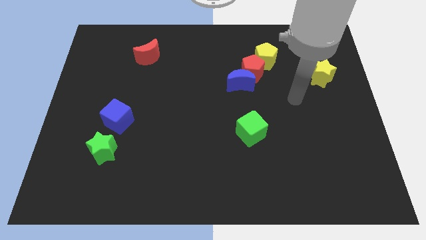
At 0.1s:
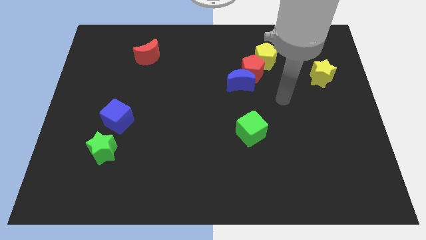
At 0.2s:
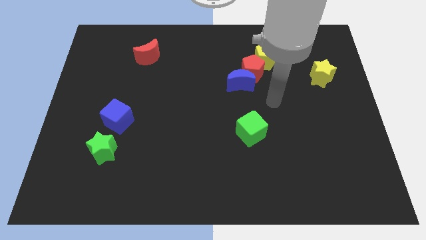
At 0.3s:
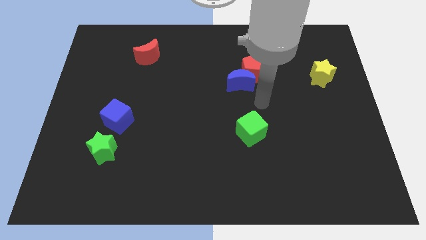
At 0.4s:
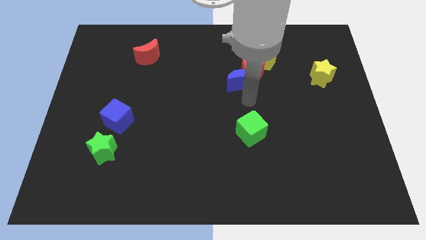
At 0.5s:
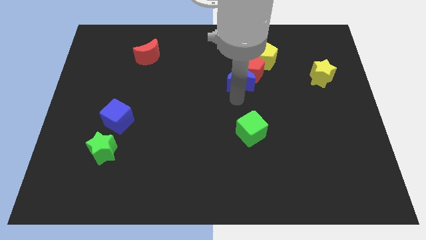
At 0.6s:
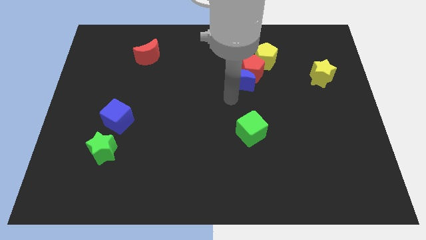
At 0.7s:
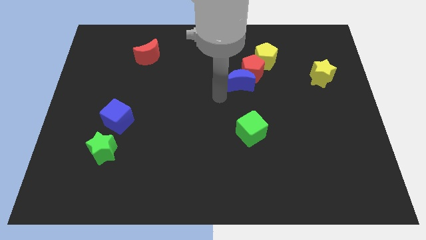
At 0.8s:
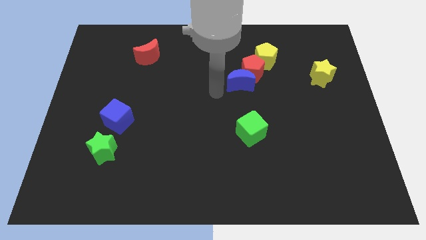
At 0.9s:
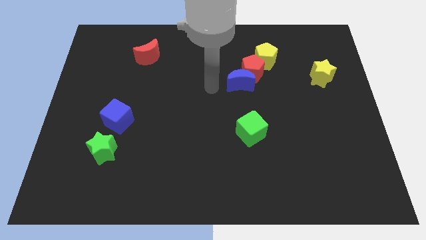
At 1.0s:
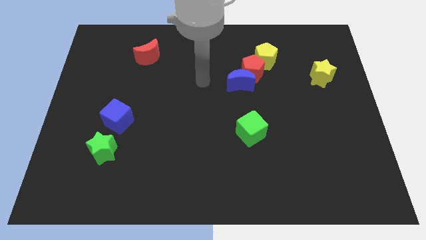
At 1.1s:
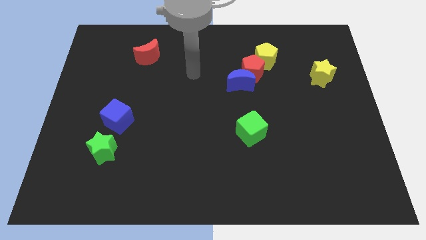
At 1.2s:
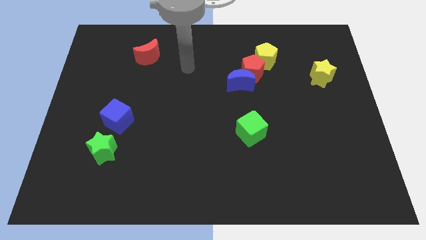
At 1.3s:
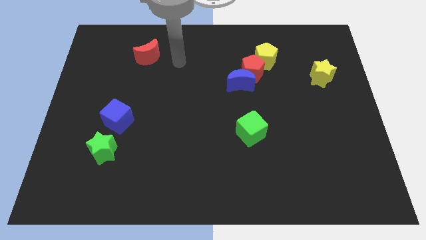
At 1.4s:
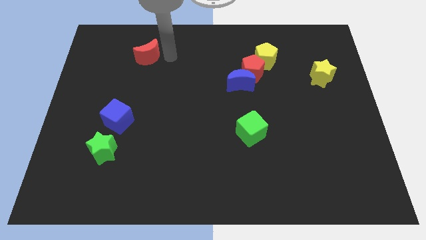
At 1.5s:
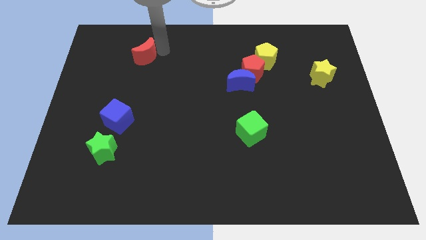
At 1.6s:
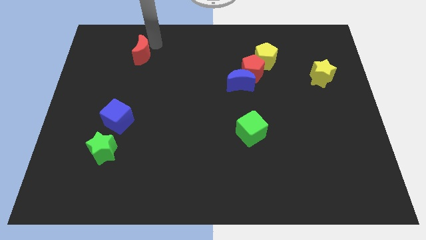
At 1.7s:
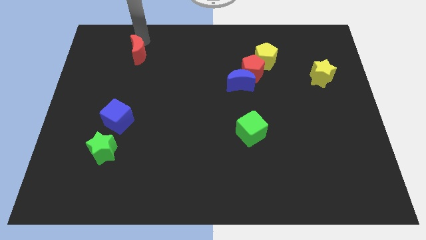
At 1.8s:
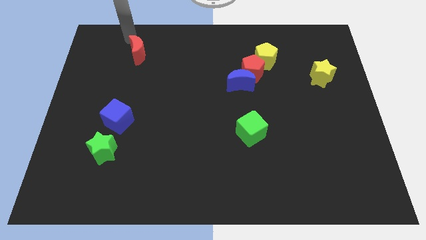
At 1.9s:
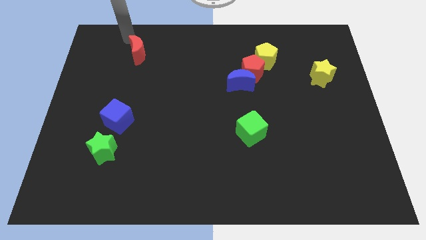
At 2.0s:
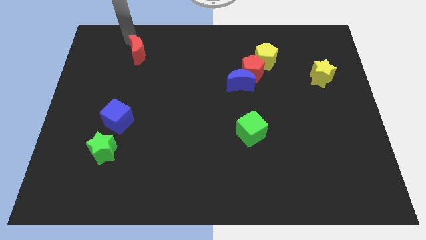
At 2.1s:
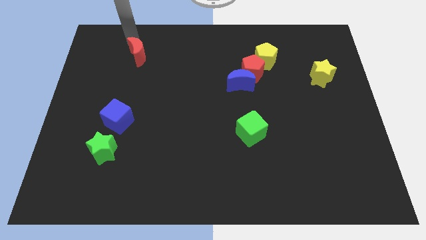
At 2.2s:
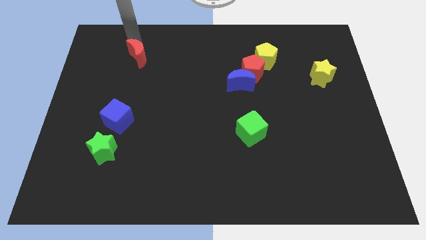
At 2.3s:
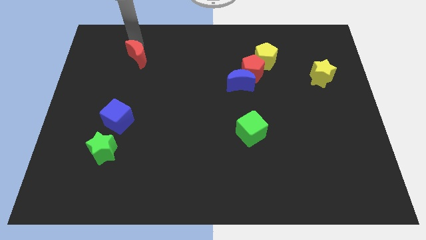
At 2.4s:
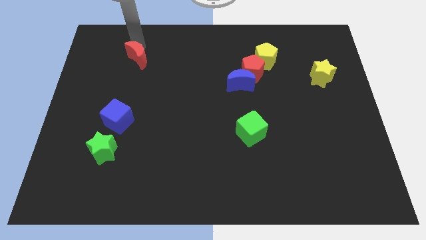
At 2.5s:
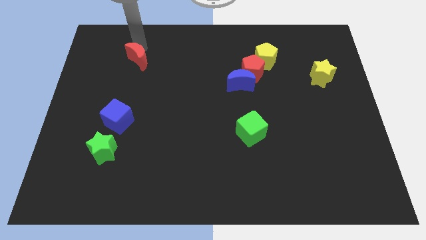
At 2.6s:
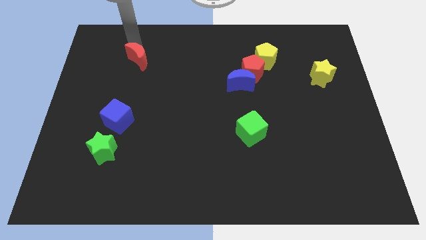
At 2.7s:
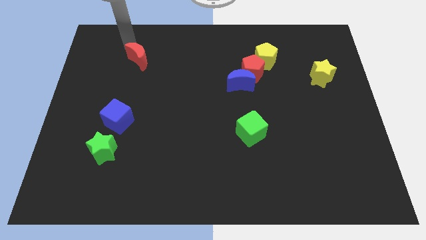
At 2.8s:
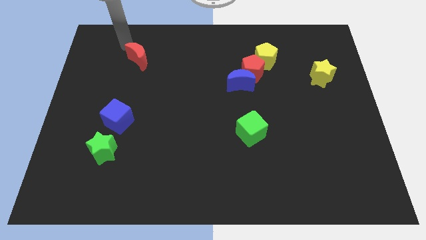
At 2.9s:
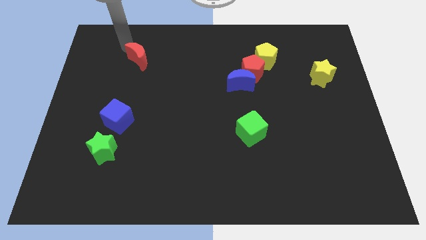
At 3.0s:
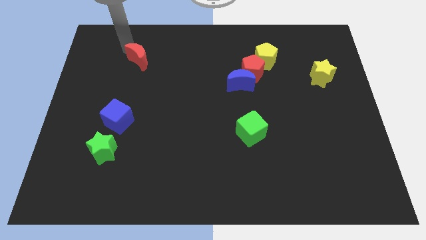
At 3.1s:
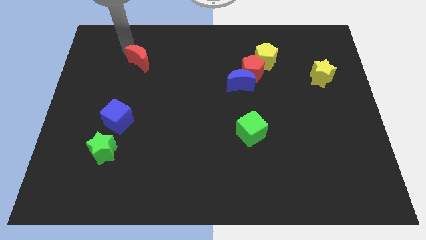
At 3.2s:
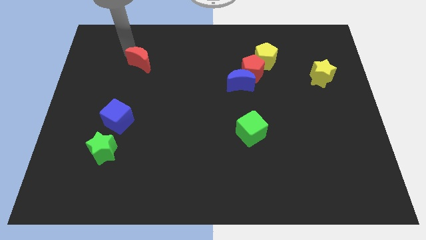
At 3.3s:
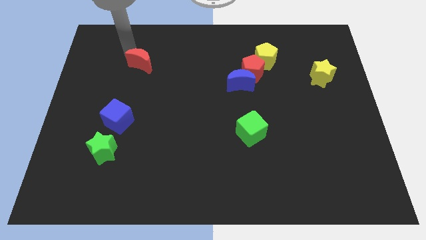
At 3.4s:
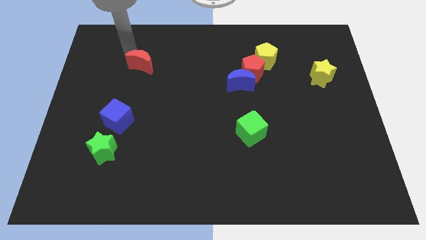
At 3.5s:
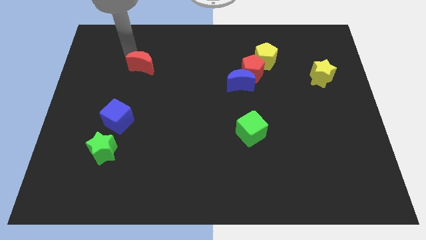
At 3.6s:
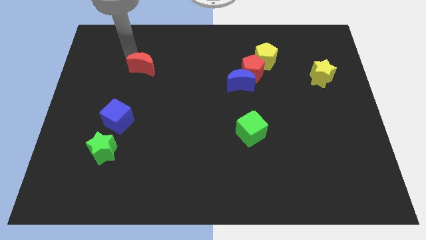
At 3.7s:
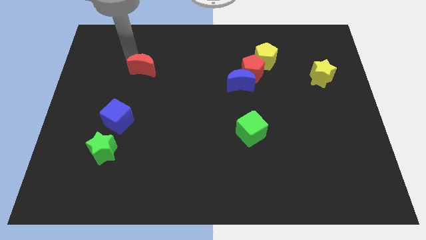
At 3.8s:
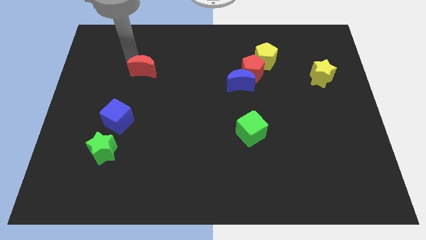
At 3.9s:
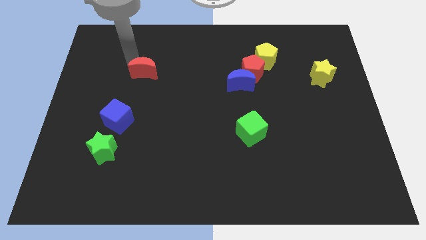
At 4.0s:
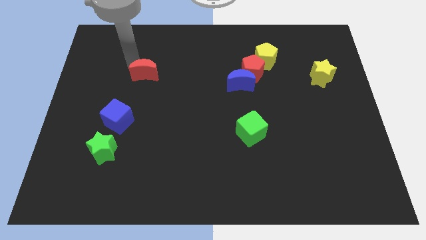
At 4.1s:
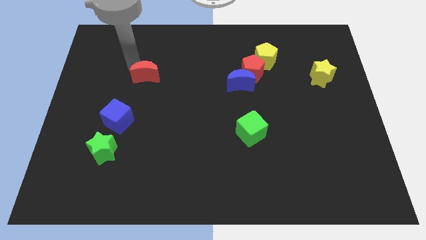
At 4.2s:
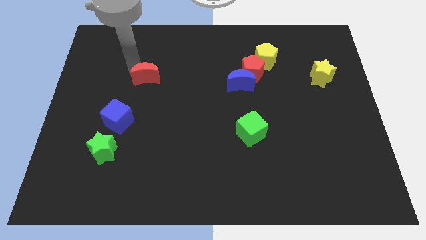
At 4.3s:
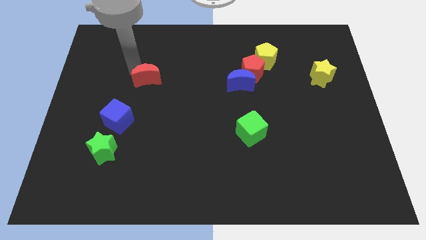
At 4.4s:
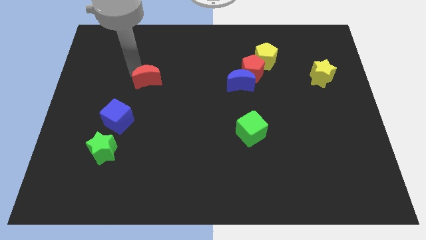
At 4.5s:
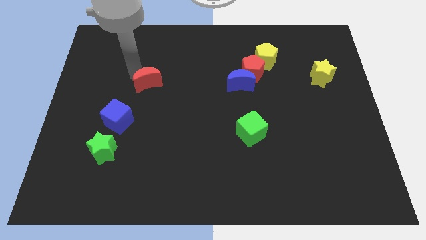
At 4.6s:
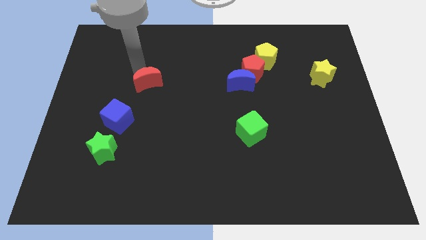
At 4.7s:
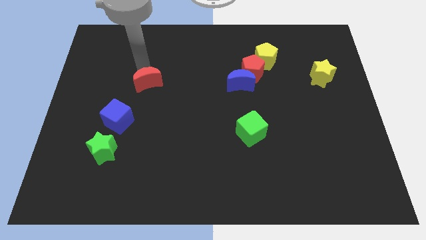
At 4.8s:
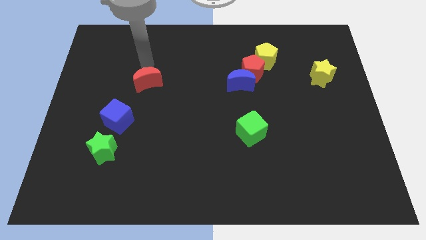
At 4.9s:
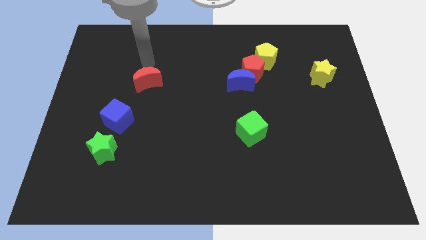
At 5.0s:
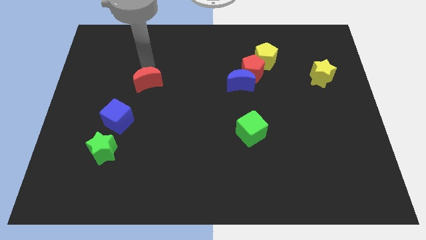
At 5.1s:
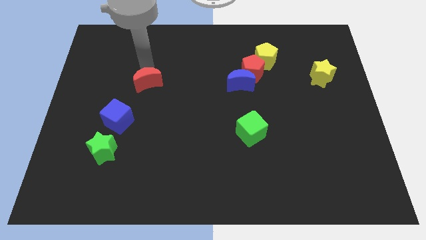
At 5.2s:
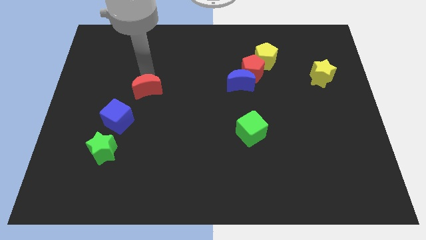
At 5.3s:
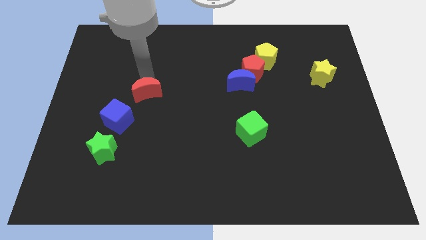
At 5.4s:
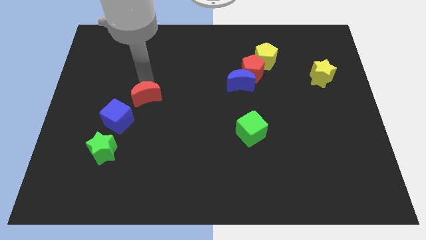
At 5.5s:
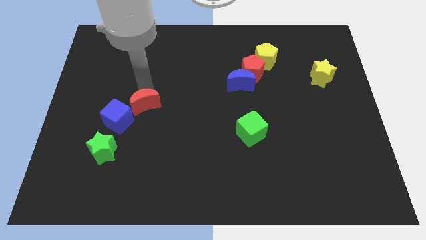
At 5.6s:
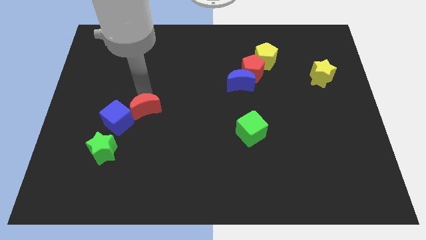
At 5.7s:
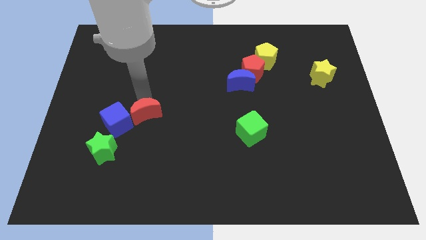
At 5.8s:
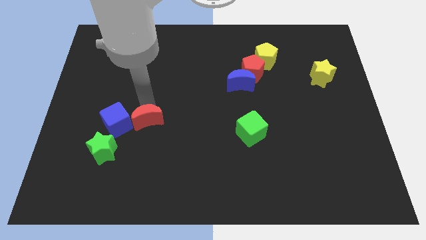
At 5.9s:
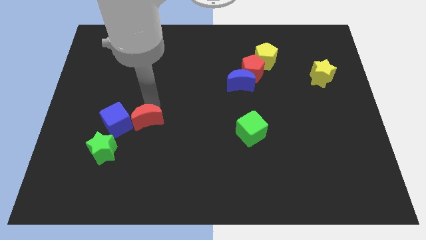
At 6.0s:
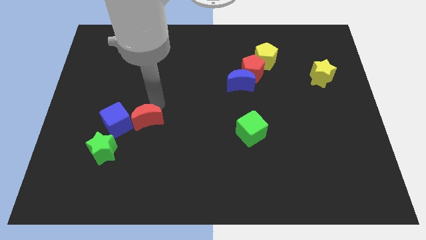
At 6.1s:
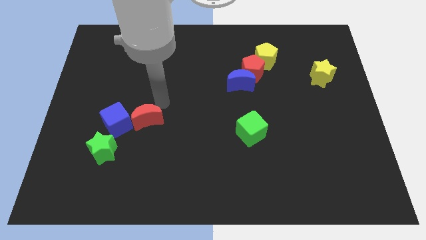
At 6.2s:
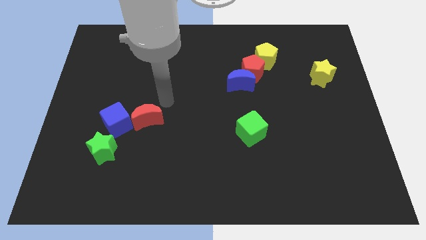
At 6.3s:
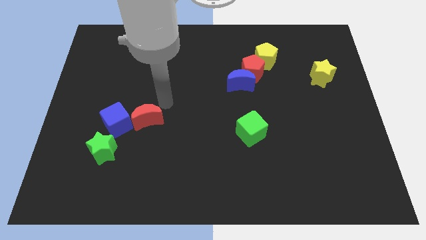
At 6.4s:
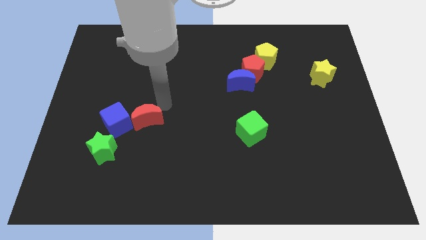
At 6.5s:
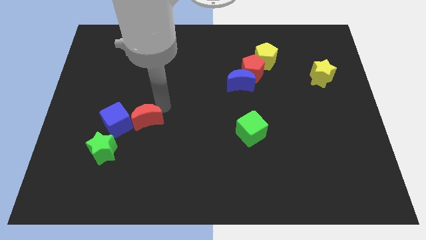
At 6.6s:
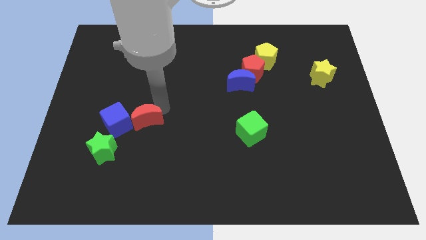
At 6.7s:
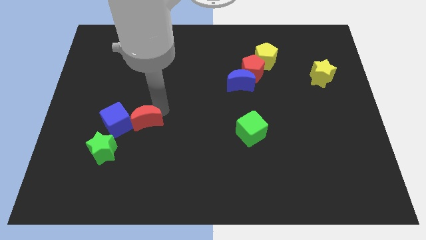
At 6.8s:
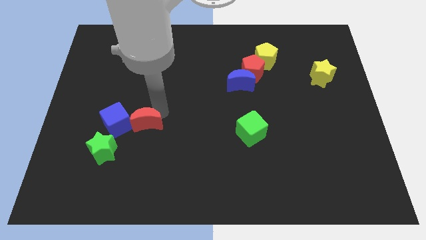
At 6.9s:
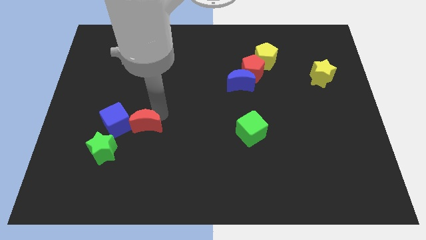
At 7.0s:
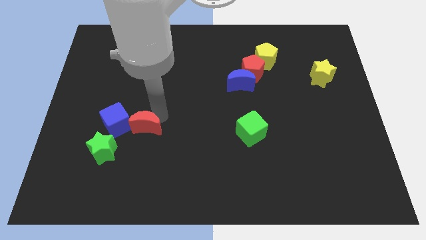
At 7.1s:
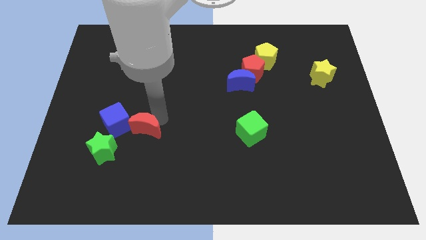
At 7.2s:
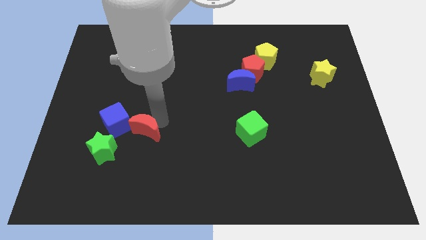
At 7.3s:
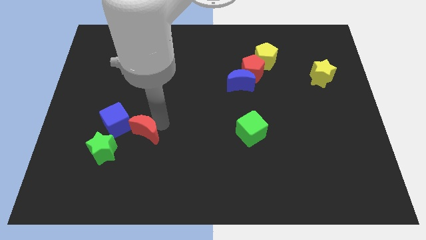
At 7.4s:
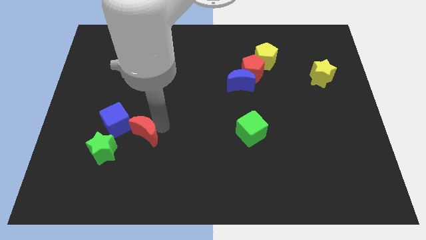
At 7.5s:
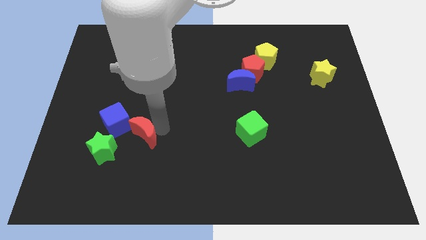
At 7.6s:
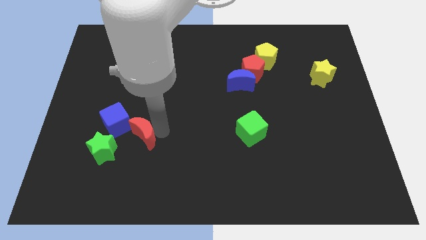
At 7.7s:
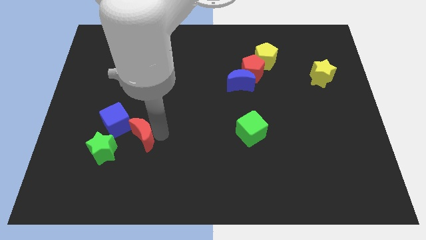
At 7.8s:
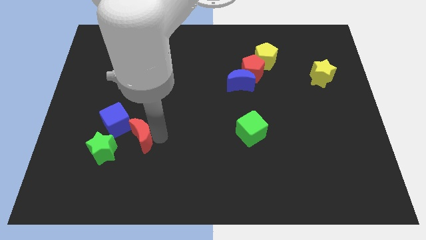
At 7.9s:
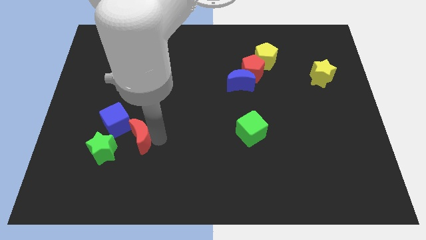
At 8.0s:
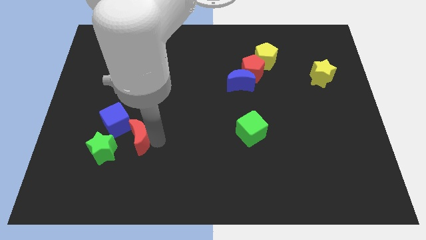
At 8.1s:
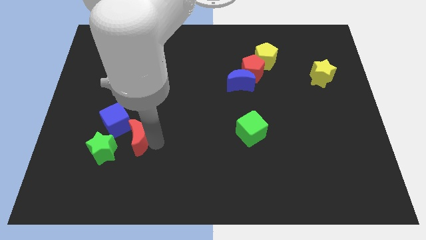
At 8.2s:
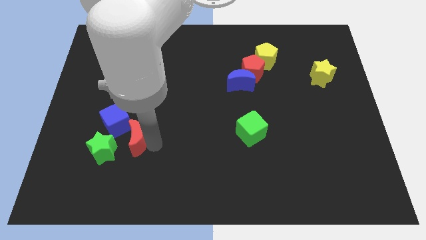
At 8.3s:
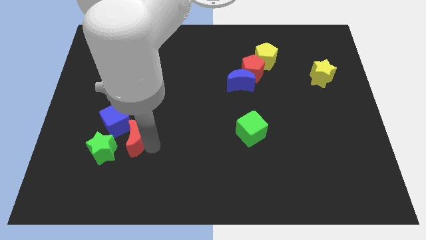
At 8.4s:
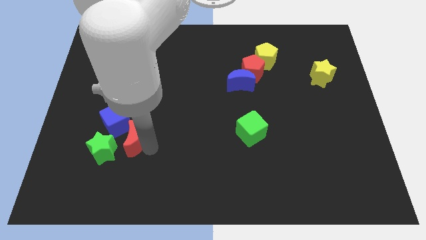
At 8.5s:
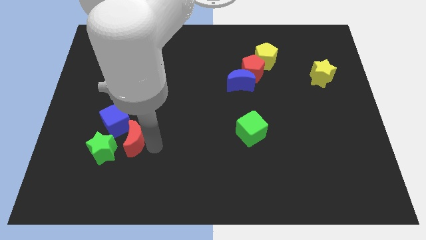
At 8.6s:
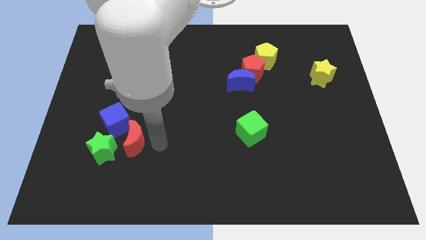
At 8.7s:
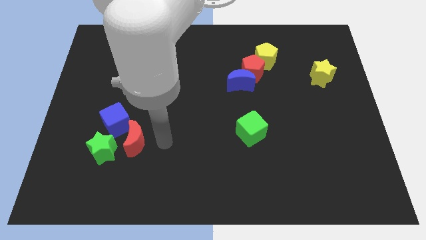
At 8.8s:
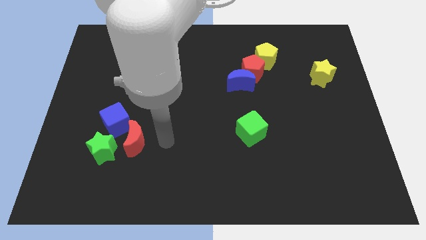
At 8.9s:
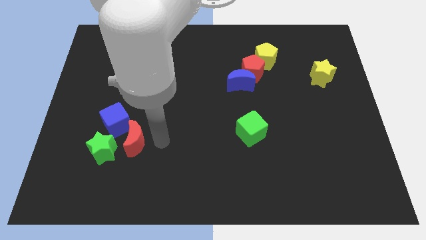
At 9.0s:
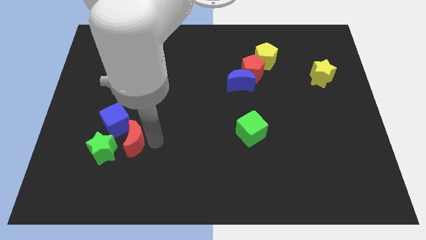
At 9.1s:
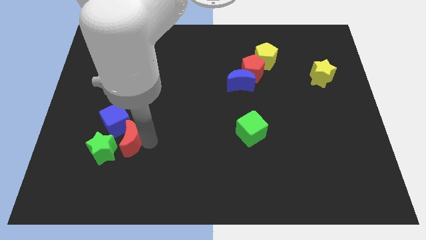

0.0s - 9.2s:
slide the red moon next to the green star
